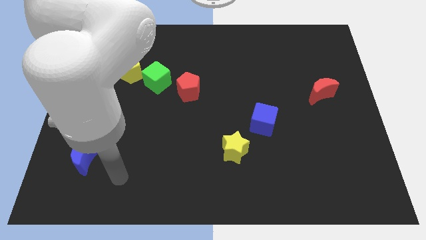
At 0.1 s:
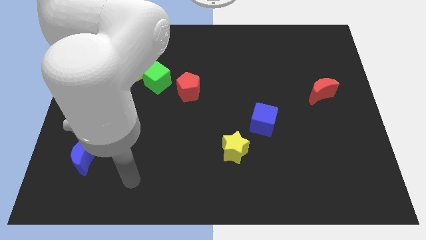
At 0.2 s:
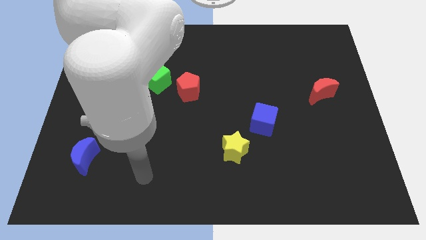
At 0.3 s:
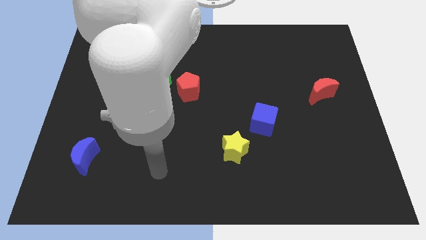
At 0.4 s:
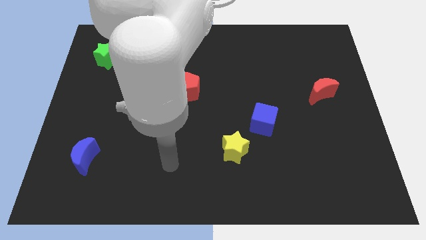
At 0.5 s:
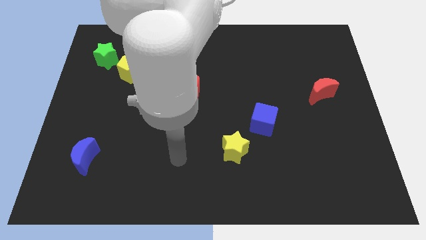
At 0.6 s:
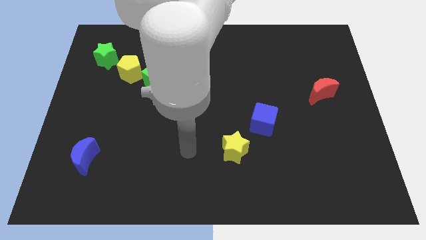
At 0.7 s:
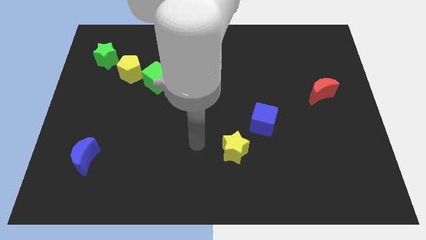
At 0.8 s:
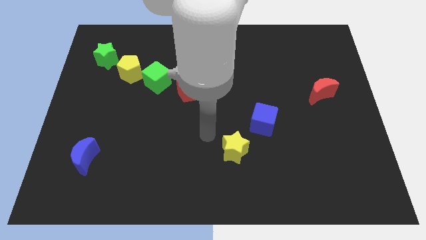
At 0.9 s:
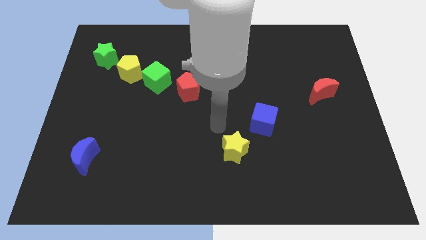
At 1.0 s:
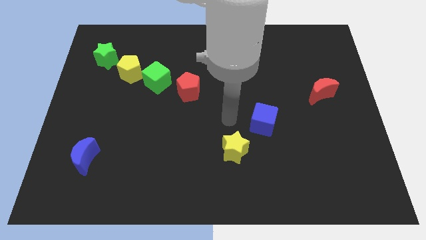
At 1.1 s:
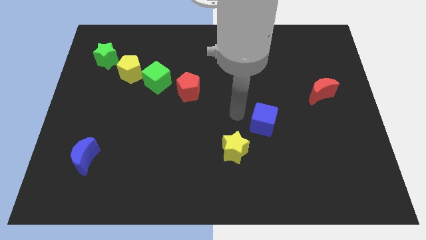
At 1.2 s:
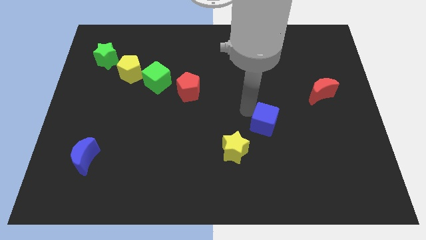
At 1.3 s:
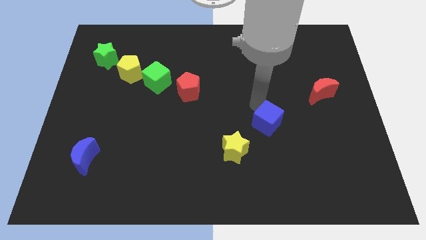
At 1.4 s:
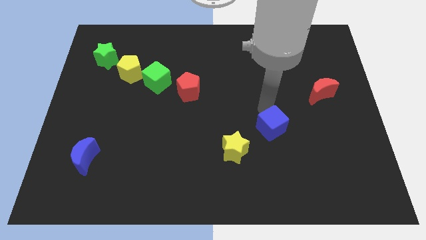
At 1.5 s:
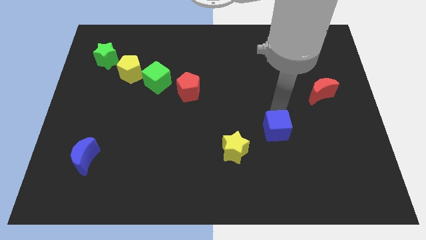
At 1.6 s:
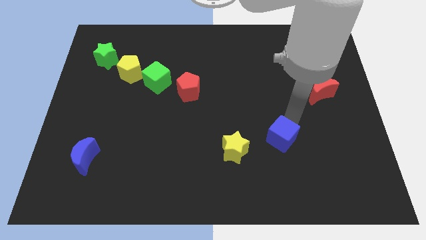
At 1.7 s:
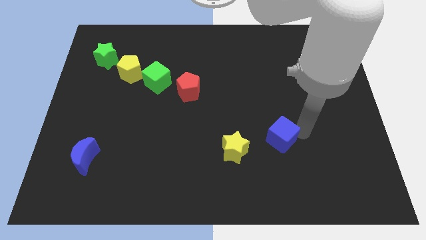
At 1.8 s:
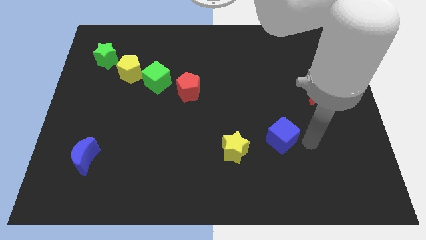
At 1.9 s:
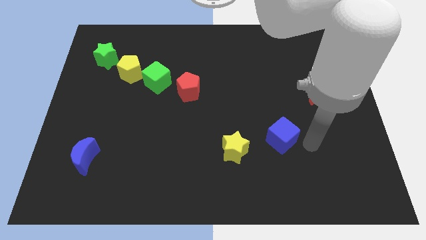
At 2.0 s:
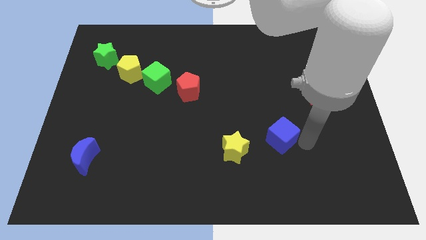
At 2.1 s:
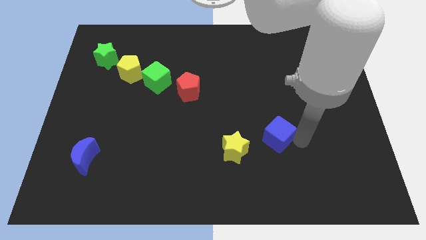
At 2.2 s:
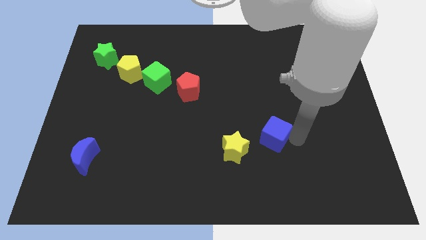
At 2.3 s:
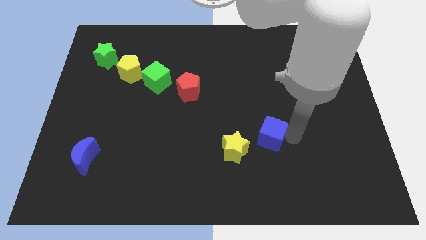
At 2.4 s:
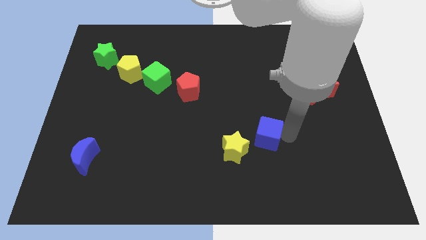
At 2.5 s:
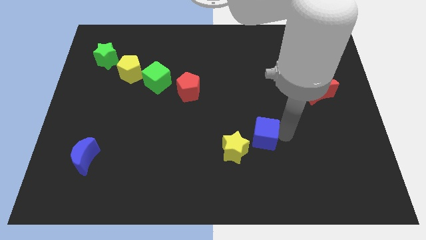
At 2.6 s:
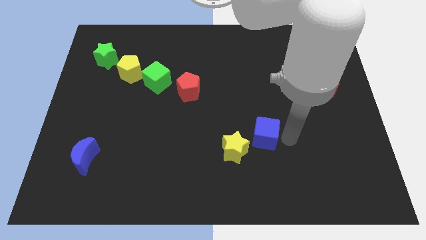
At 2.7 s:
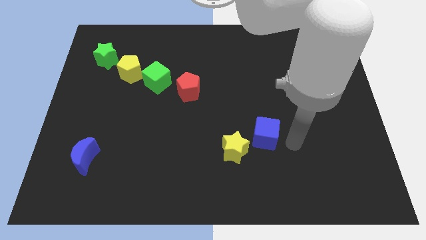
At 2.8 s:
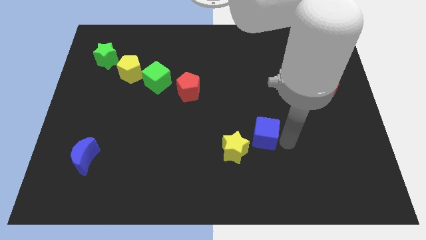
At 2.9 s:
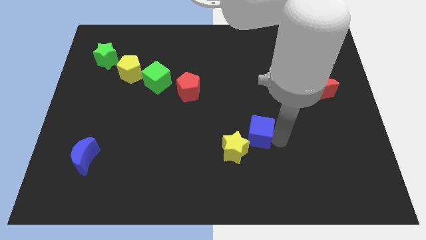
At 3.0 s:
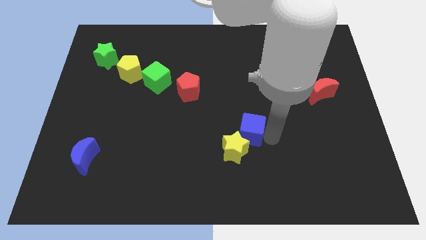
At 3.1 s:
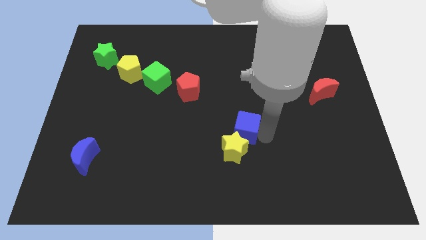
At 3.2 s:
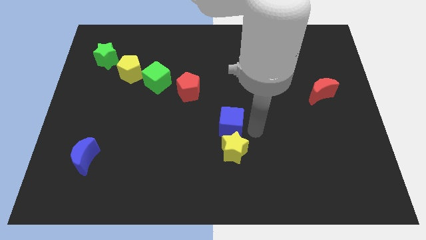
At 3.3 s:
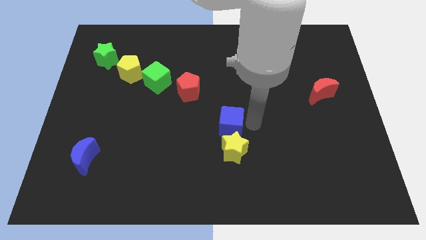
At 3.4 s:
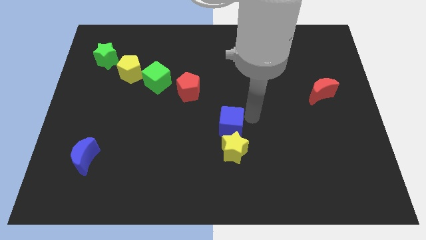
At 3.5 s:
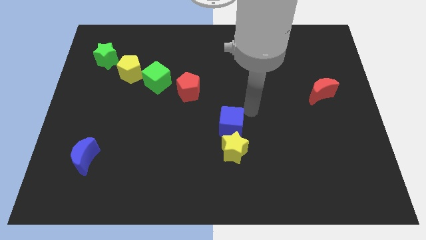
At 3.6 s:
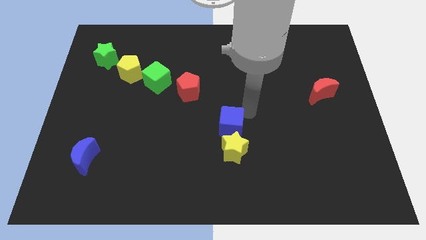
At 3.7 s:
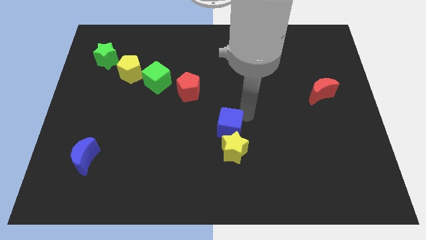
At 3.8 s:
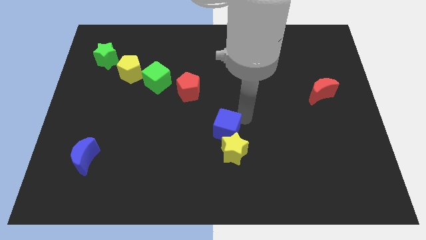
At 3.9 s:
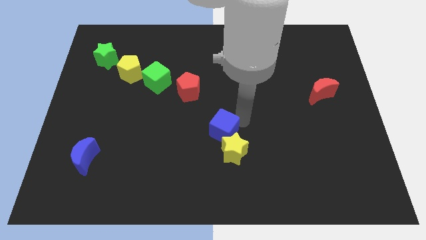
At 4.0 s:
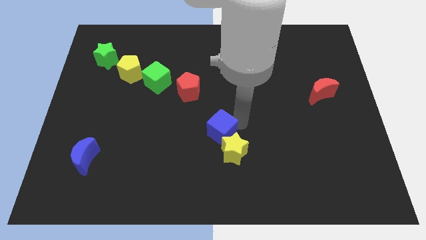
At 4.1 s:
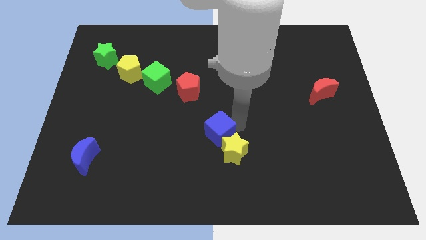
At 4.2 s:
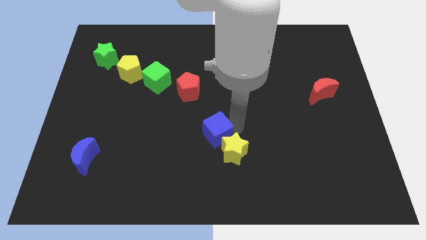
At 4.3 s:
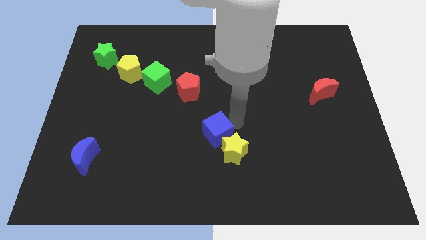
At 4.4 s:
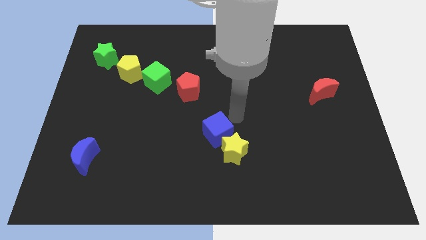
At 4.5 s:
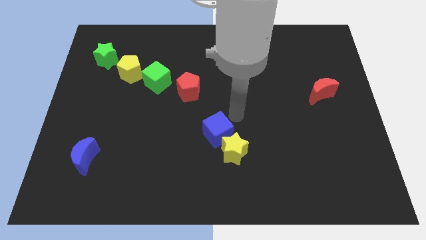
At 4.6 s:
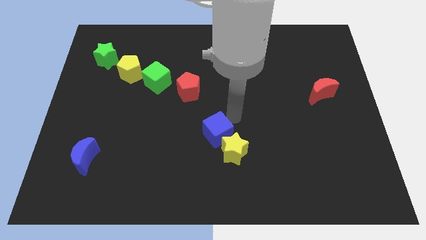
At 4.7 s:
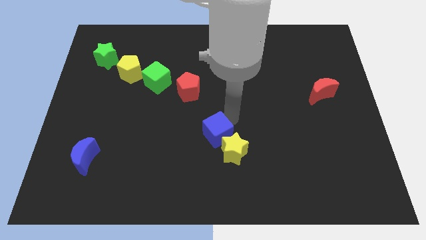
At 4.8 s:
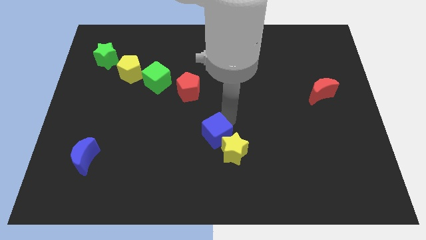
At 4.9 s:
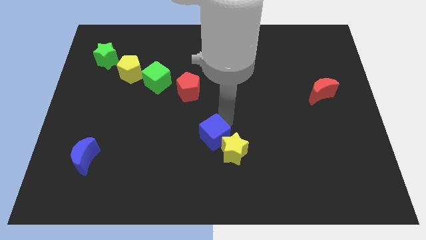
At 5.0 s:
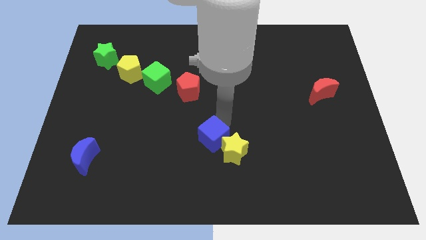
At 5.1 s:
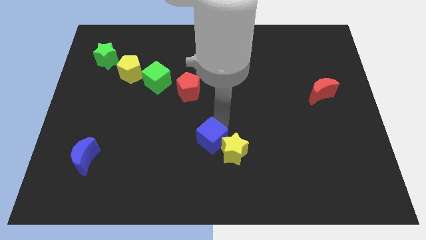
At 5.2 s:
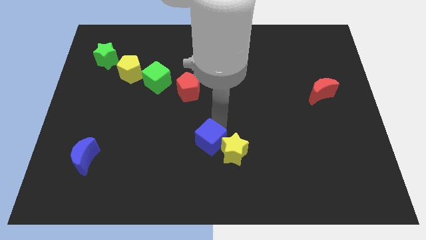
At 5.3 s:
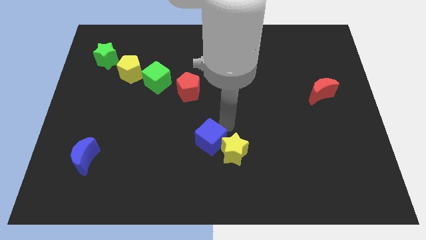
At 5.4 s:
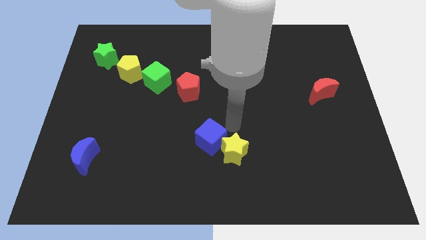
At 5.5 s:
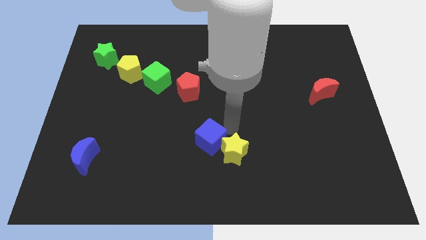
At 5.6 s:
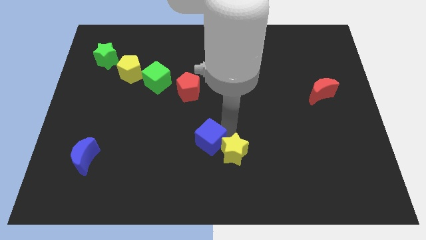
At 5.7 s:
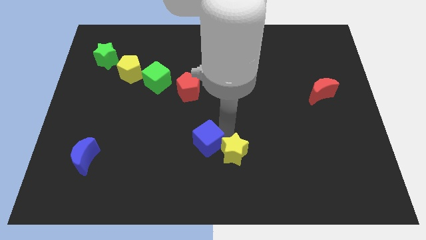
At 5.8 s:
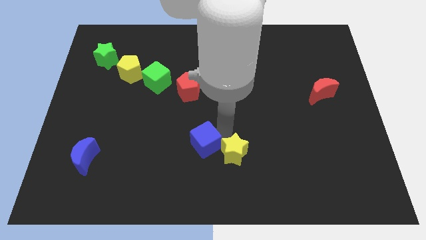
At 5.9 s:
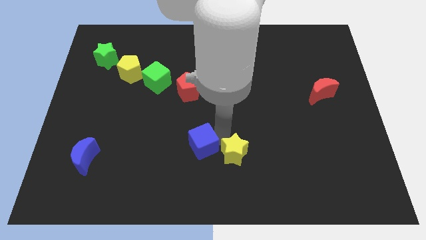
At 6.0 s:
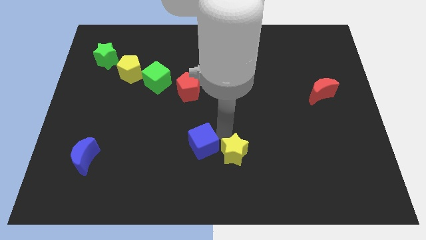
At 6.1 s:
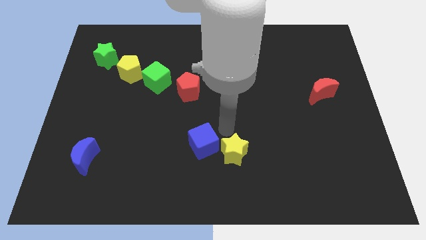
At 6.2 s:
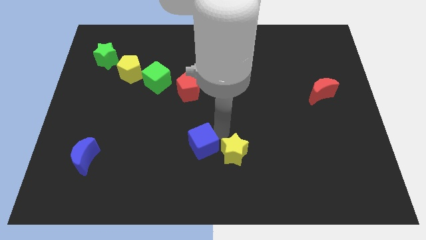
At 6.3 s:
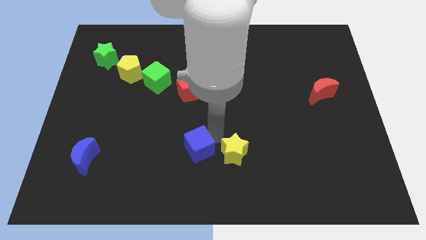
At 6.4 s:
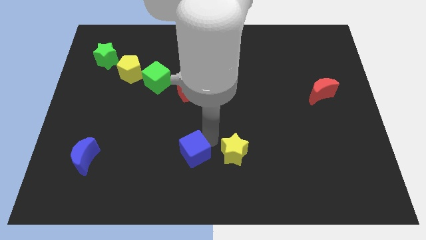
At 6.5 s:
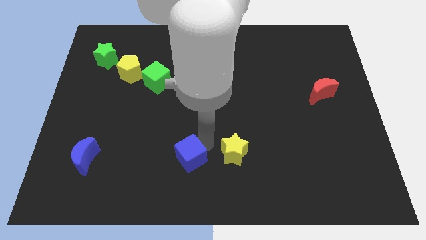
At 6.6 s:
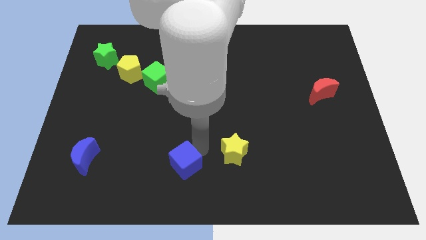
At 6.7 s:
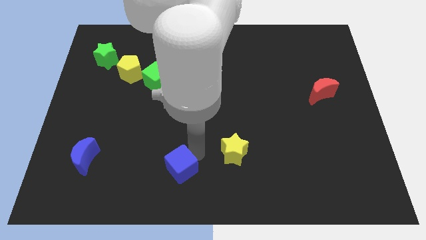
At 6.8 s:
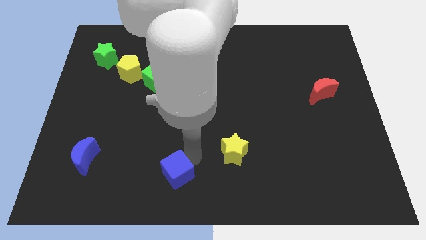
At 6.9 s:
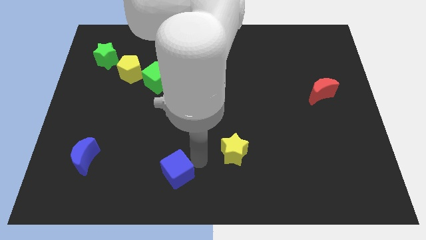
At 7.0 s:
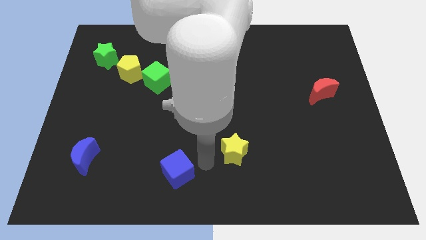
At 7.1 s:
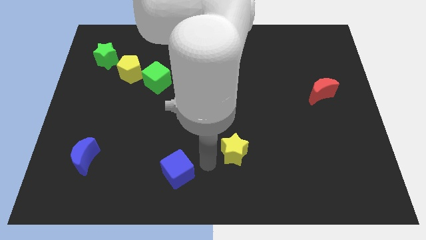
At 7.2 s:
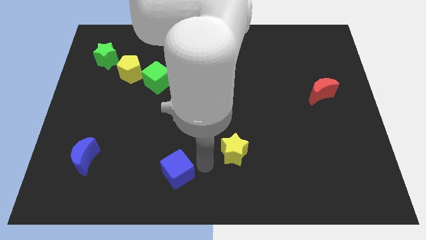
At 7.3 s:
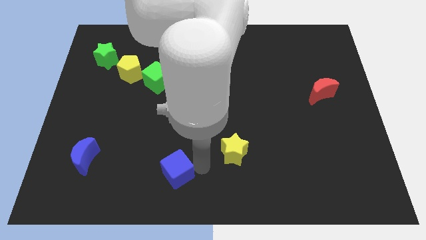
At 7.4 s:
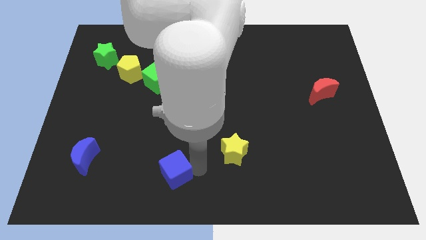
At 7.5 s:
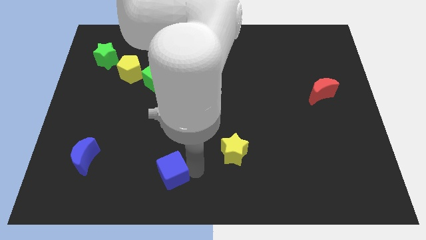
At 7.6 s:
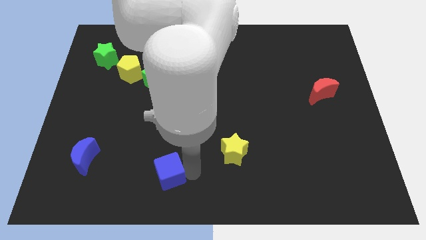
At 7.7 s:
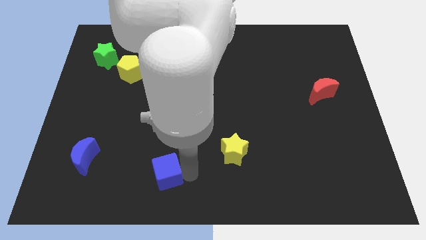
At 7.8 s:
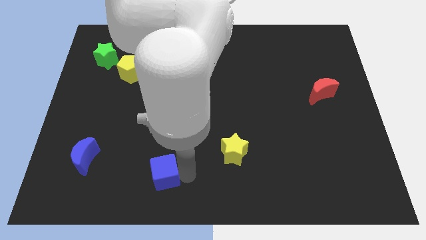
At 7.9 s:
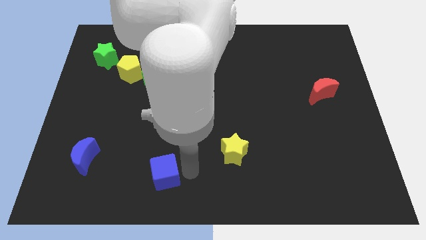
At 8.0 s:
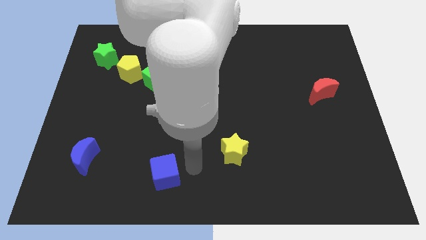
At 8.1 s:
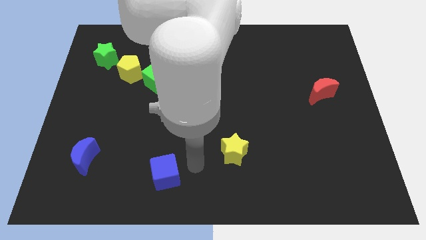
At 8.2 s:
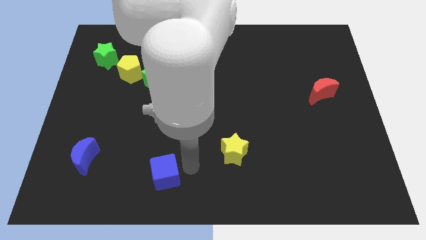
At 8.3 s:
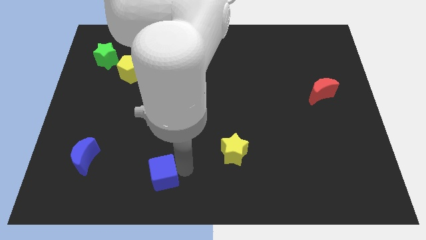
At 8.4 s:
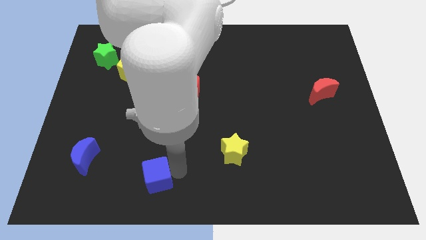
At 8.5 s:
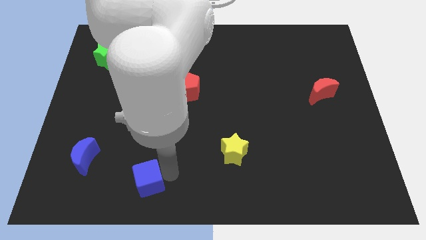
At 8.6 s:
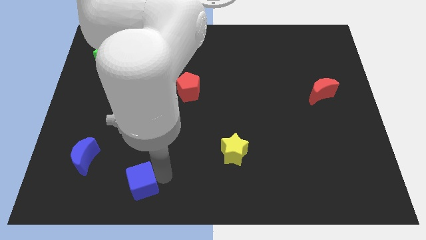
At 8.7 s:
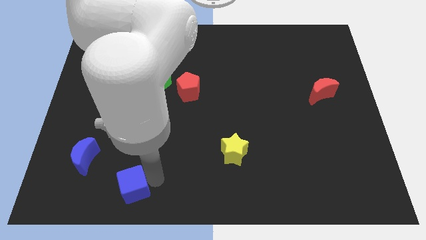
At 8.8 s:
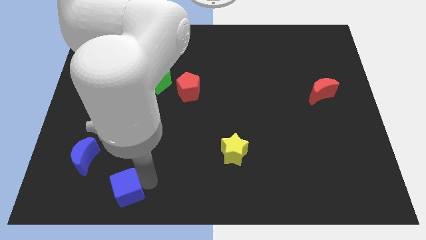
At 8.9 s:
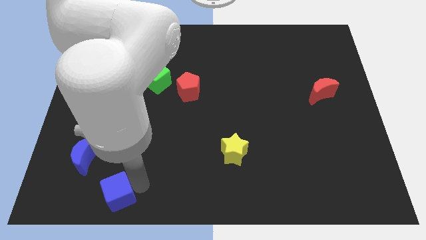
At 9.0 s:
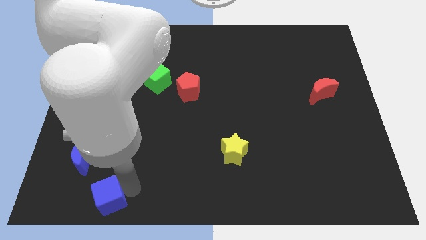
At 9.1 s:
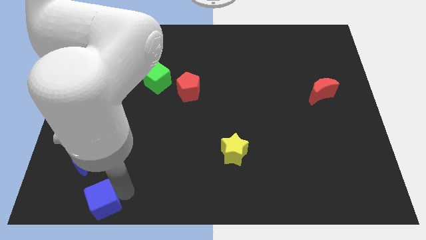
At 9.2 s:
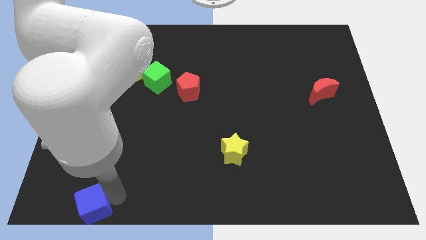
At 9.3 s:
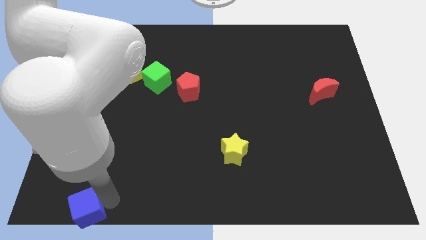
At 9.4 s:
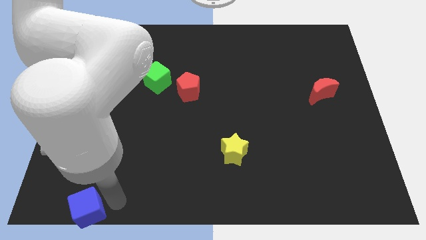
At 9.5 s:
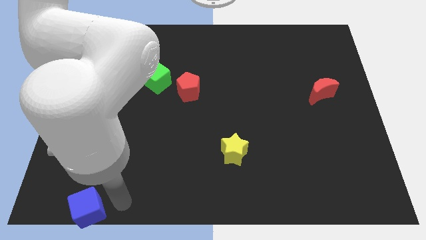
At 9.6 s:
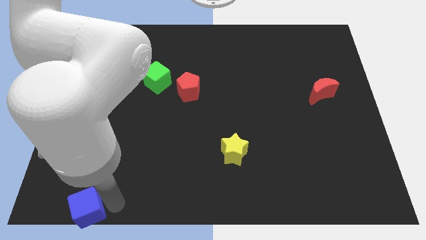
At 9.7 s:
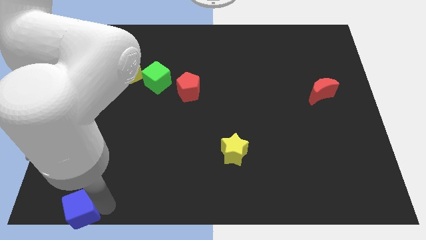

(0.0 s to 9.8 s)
push the blue cube to the lower left corner
